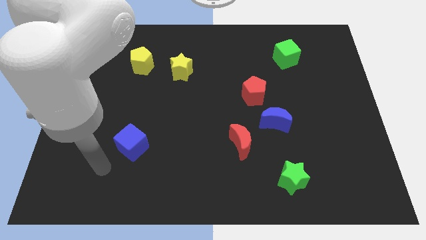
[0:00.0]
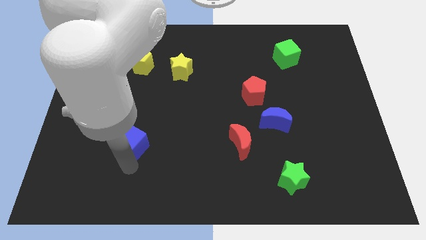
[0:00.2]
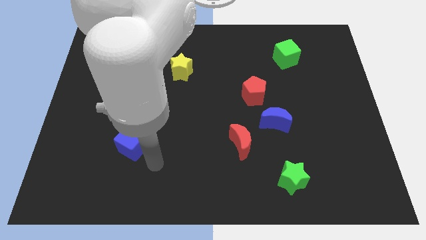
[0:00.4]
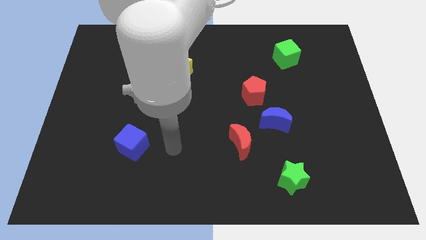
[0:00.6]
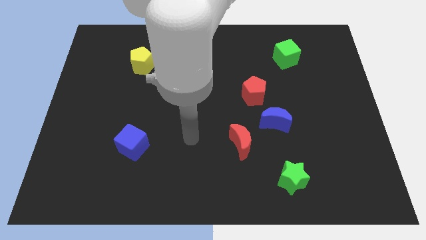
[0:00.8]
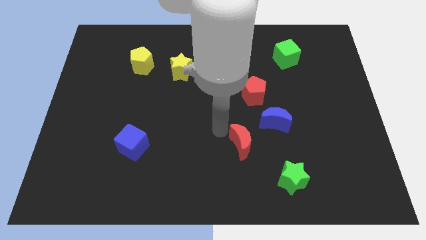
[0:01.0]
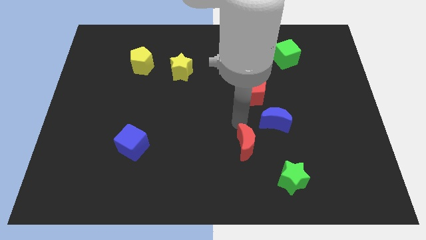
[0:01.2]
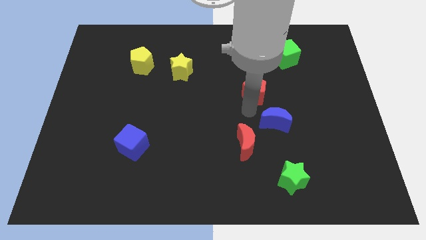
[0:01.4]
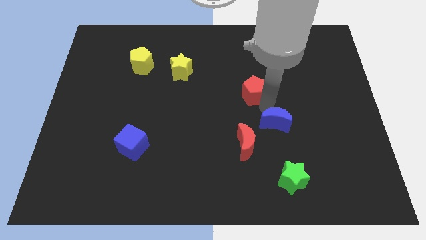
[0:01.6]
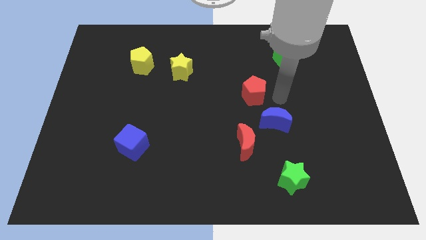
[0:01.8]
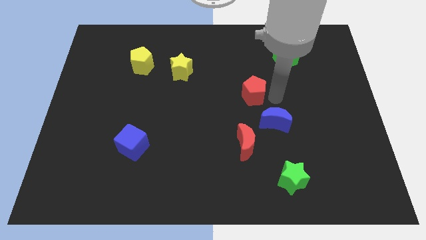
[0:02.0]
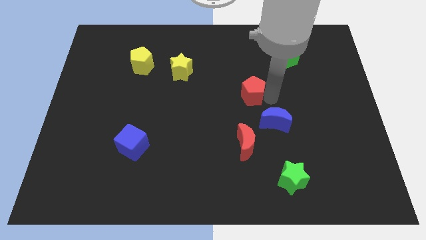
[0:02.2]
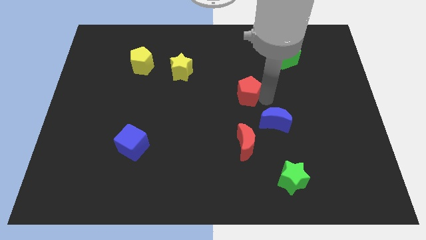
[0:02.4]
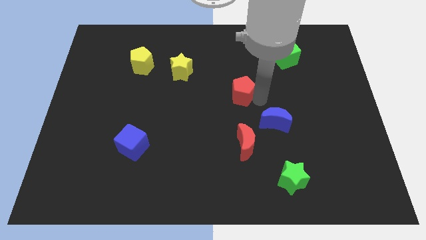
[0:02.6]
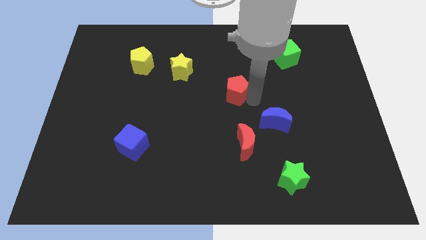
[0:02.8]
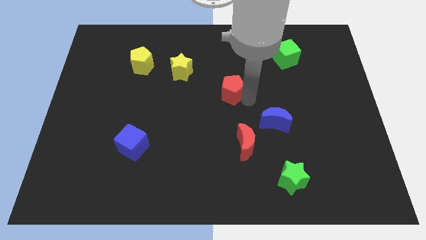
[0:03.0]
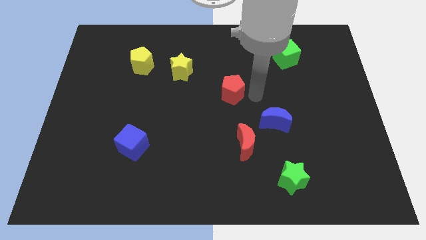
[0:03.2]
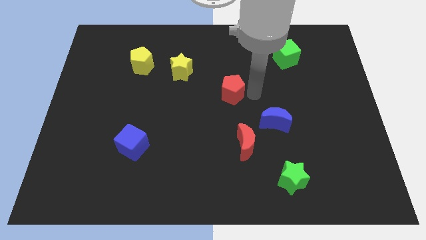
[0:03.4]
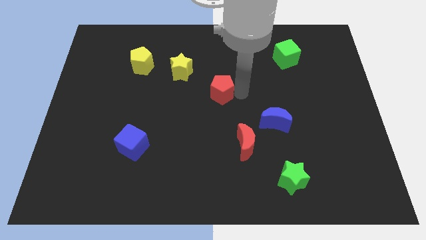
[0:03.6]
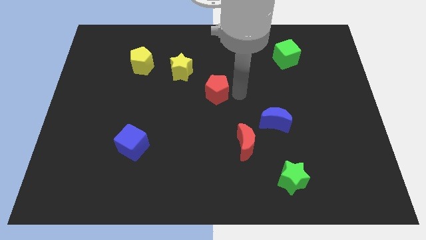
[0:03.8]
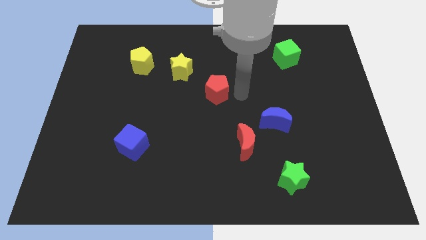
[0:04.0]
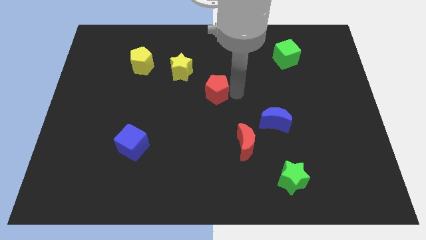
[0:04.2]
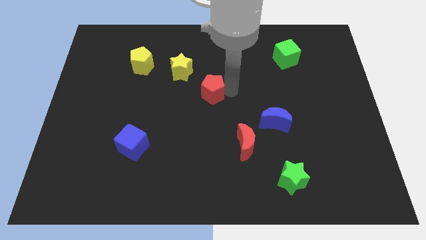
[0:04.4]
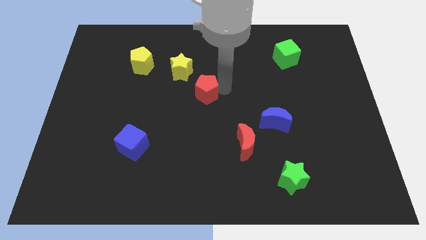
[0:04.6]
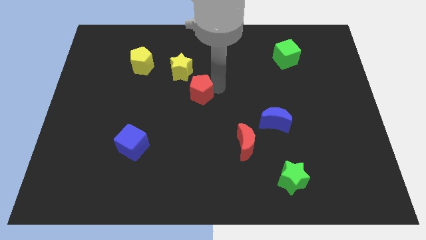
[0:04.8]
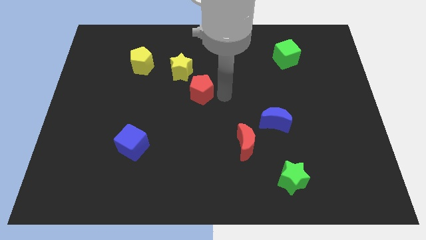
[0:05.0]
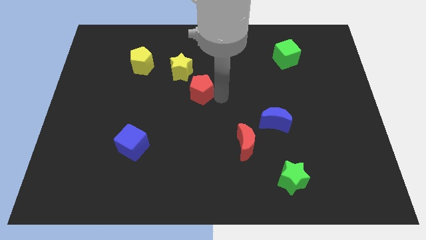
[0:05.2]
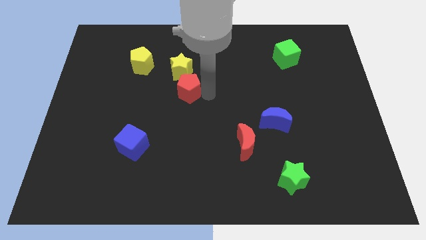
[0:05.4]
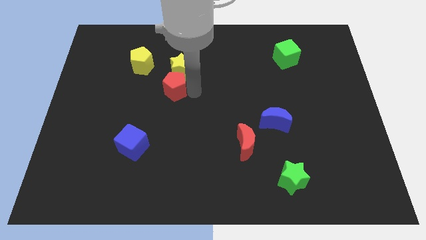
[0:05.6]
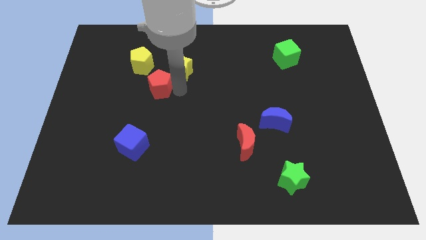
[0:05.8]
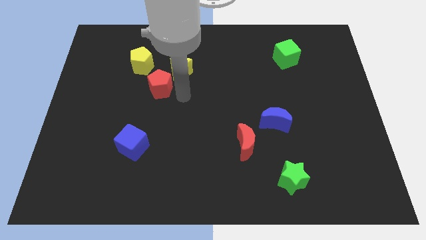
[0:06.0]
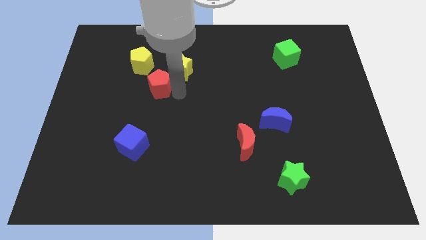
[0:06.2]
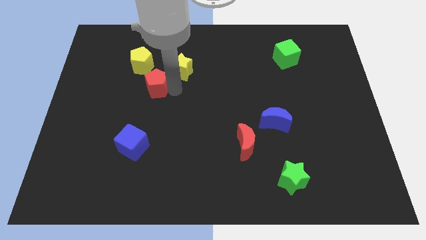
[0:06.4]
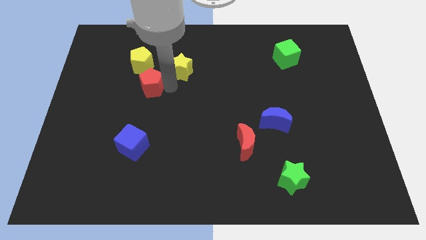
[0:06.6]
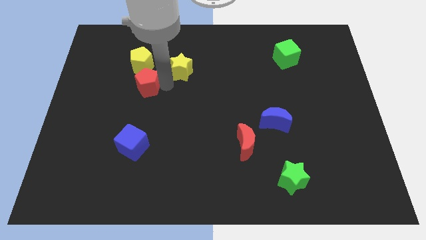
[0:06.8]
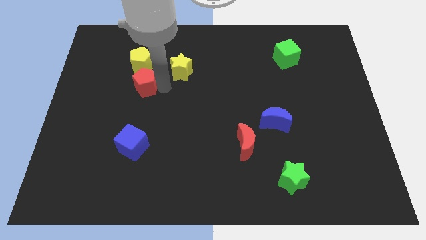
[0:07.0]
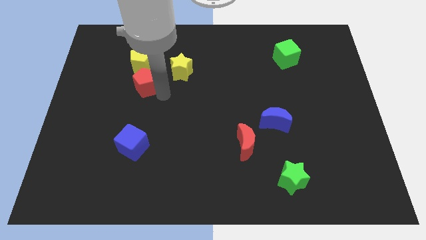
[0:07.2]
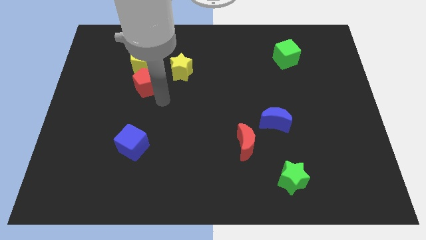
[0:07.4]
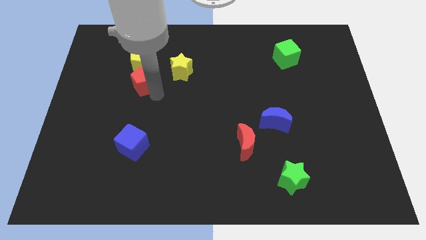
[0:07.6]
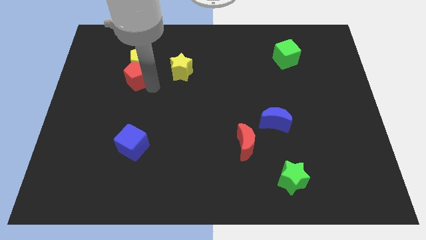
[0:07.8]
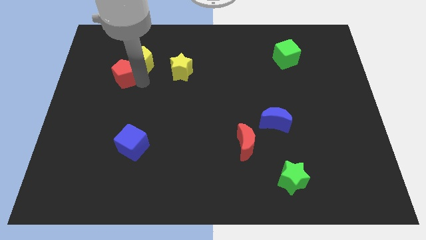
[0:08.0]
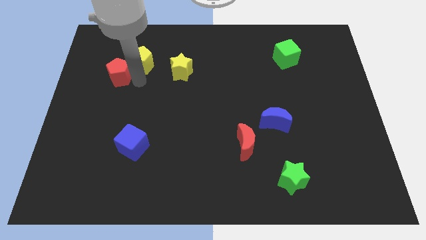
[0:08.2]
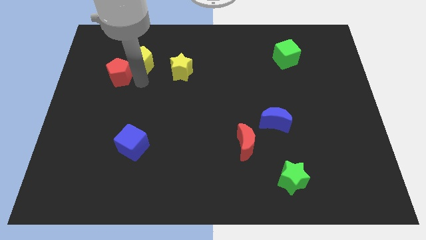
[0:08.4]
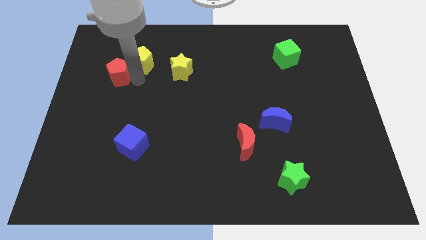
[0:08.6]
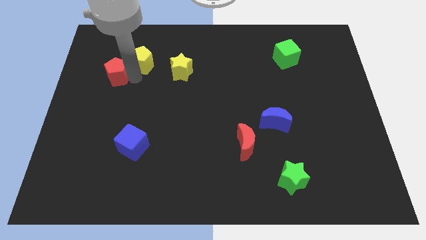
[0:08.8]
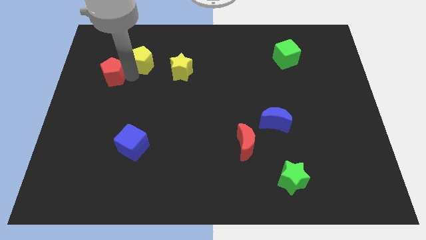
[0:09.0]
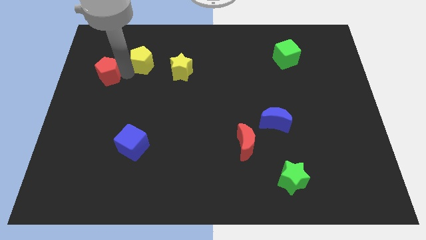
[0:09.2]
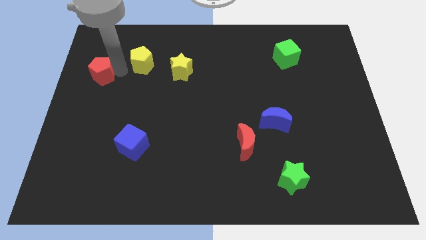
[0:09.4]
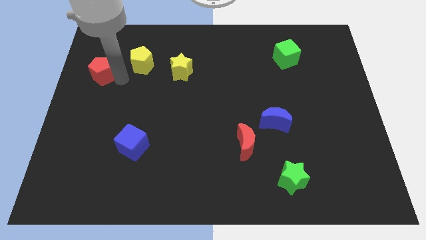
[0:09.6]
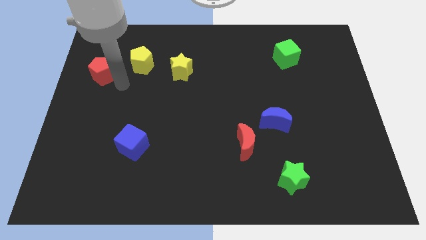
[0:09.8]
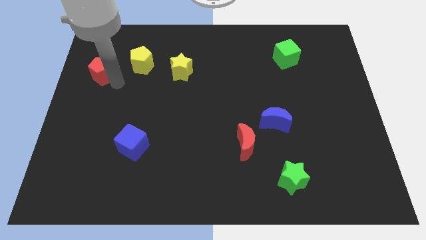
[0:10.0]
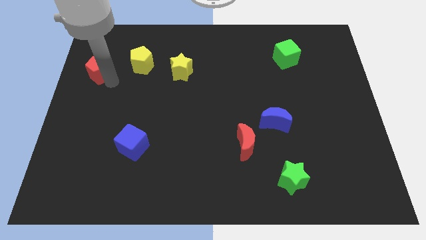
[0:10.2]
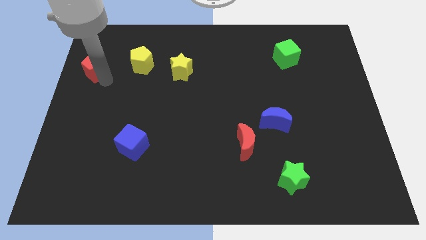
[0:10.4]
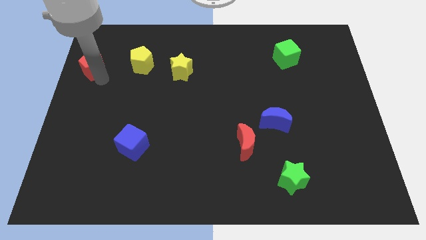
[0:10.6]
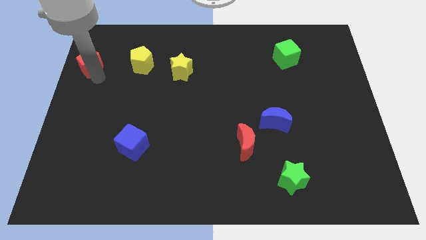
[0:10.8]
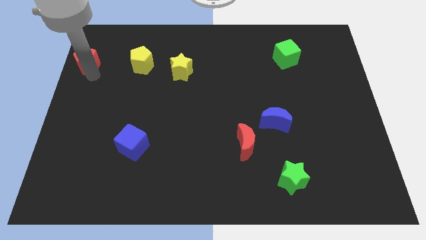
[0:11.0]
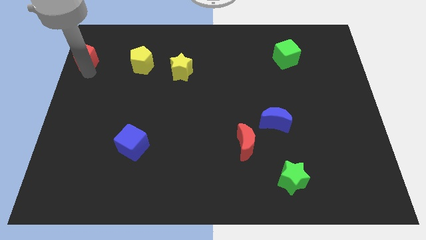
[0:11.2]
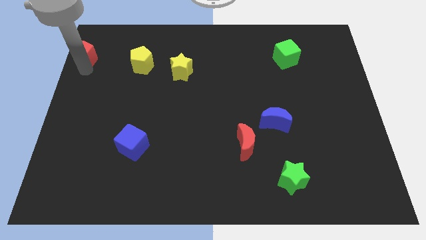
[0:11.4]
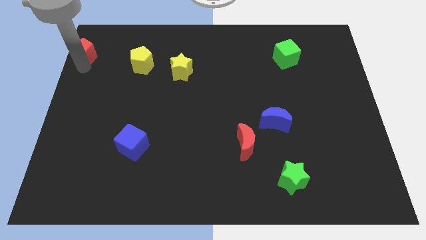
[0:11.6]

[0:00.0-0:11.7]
put the red pentagon to the top left

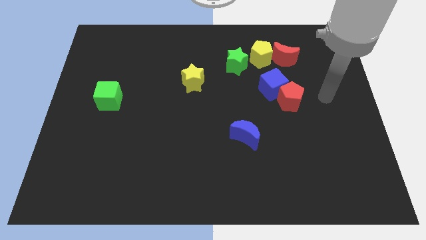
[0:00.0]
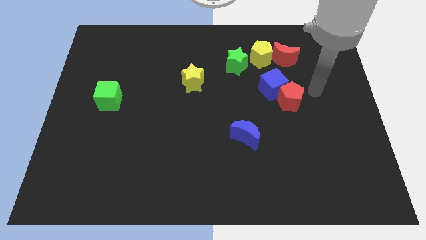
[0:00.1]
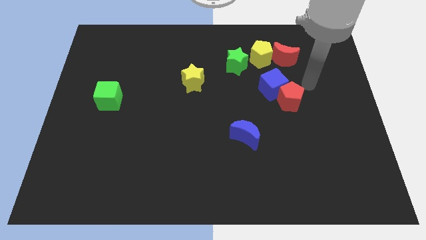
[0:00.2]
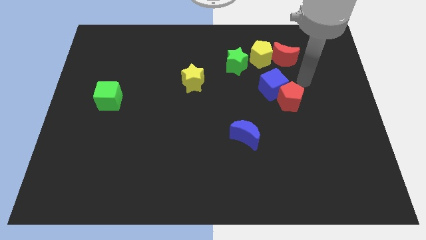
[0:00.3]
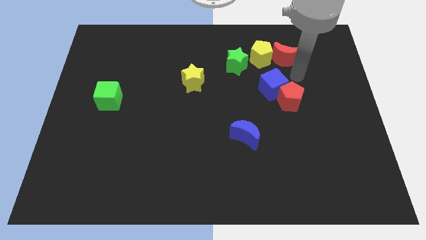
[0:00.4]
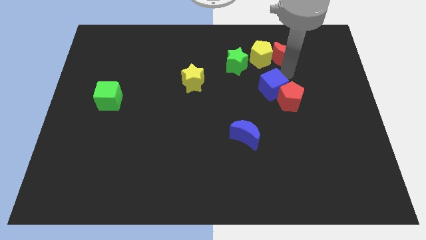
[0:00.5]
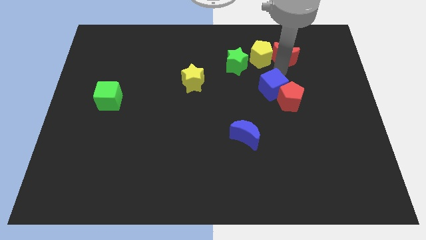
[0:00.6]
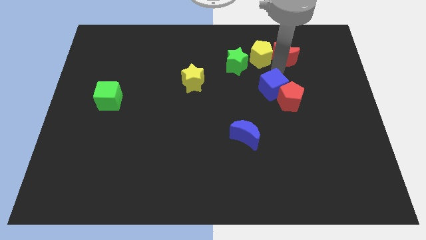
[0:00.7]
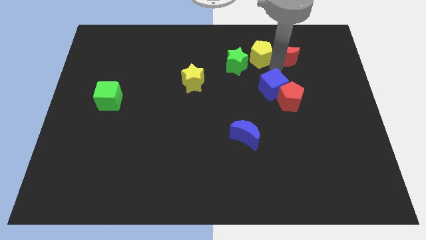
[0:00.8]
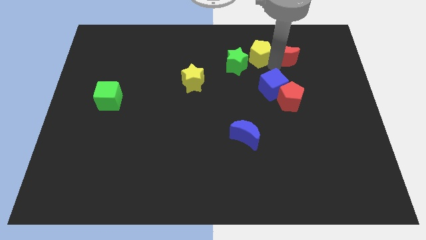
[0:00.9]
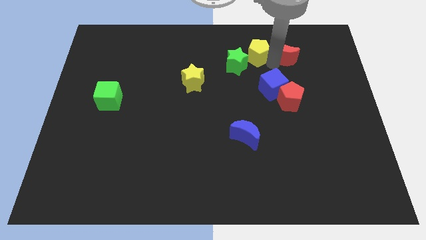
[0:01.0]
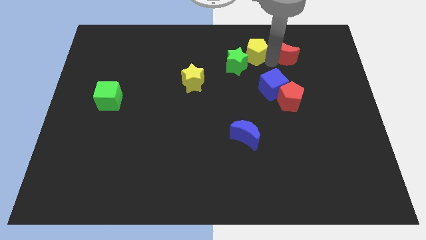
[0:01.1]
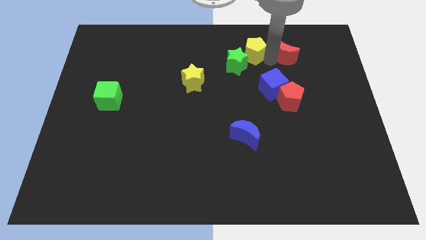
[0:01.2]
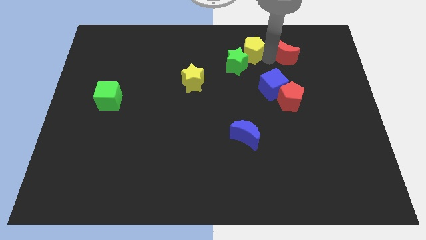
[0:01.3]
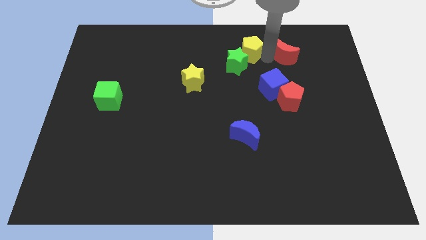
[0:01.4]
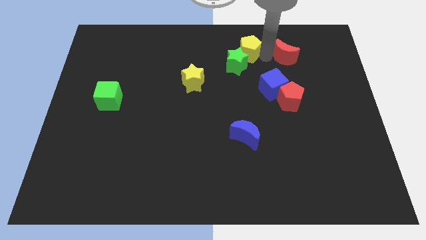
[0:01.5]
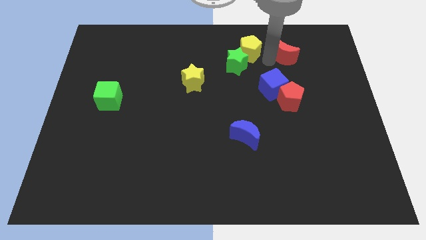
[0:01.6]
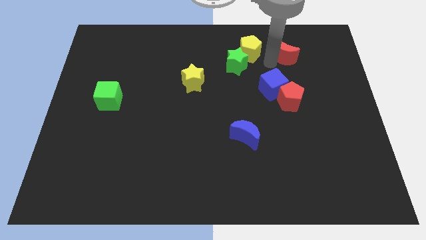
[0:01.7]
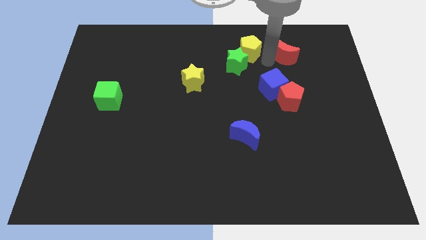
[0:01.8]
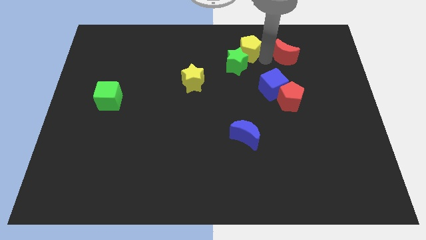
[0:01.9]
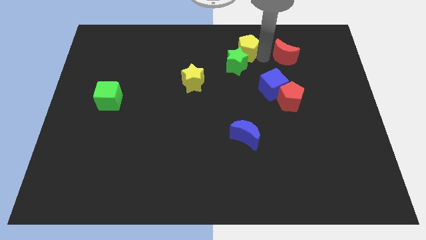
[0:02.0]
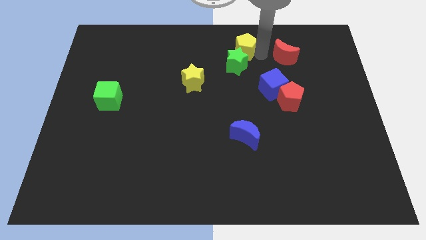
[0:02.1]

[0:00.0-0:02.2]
slide the yellow pentagon to the top side

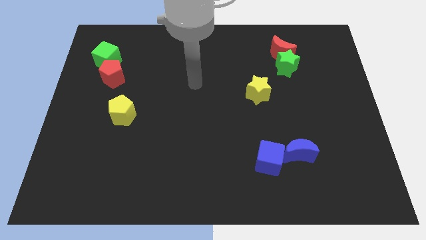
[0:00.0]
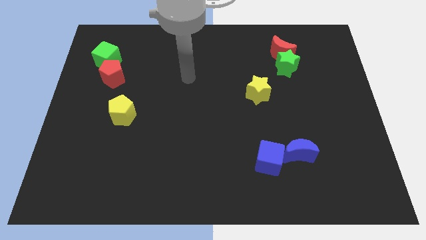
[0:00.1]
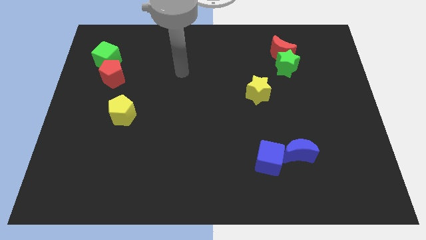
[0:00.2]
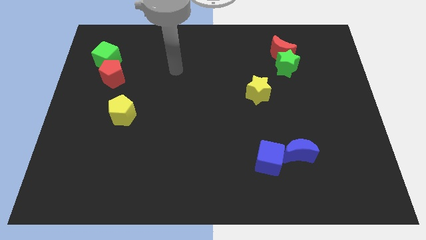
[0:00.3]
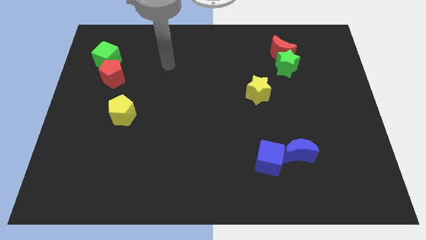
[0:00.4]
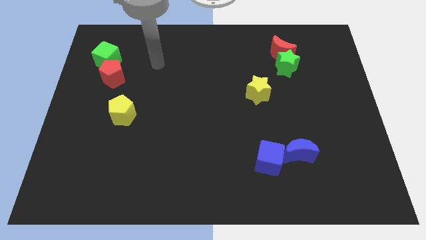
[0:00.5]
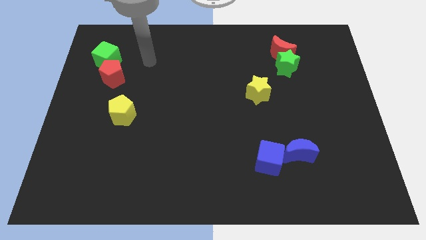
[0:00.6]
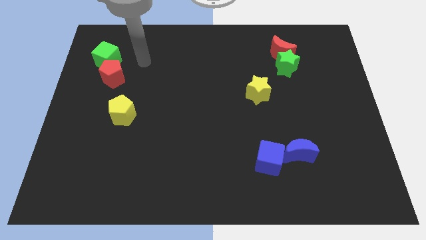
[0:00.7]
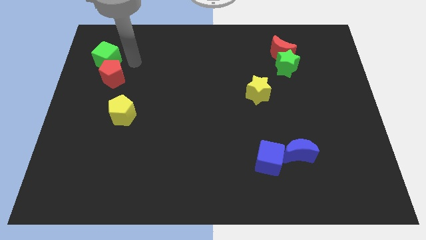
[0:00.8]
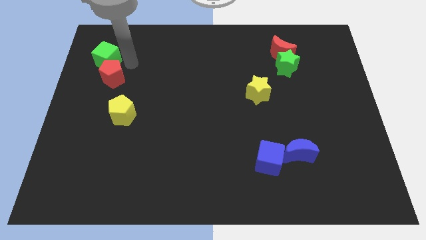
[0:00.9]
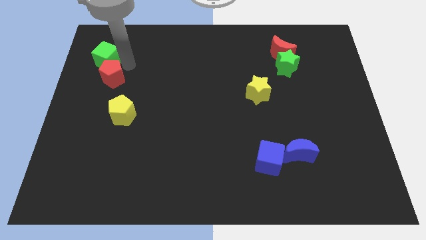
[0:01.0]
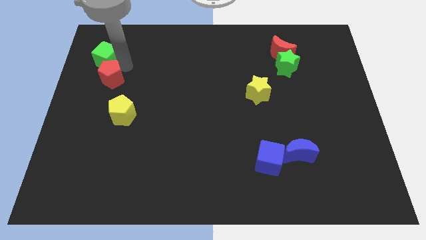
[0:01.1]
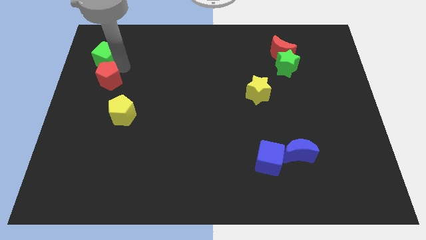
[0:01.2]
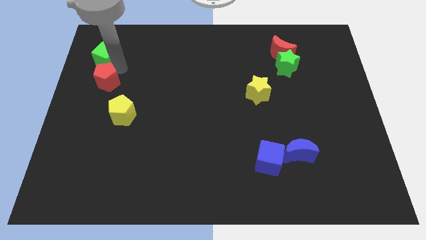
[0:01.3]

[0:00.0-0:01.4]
slide the red pentagon to the left side
